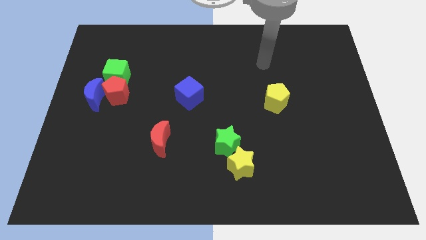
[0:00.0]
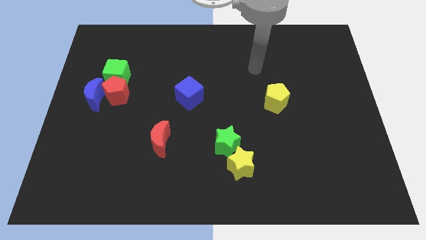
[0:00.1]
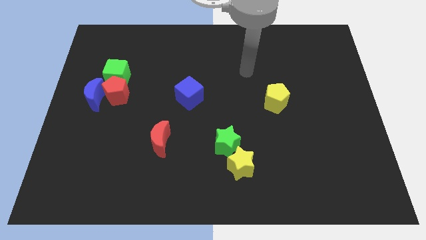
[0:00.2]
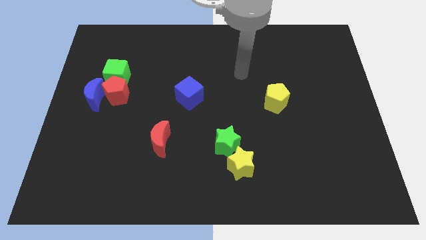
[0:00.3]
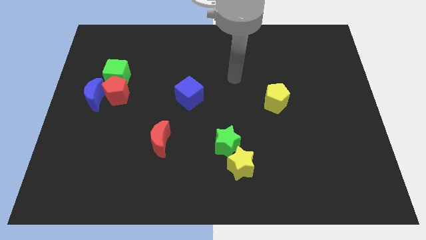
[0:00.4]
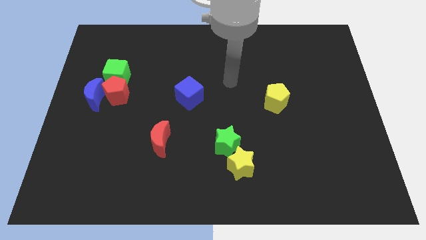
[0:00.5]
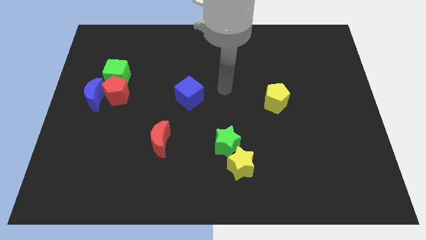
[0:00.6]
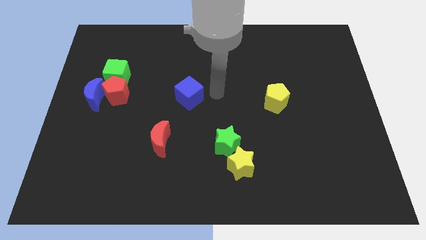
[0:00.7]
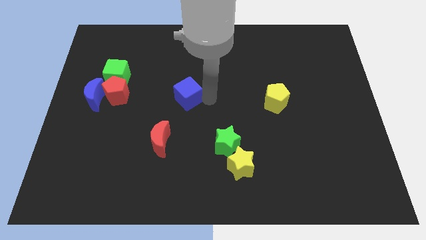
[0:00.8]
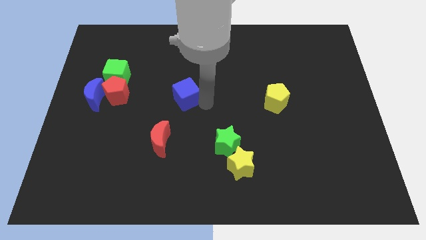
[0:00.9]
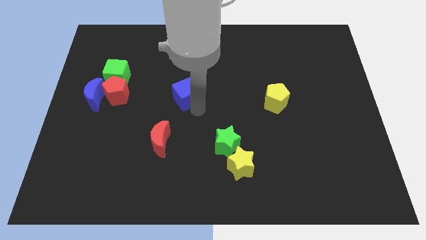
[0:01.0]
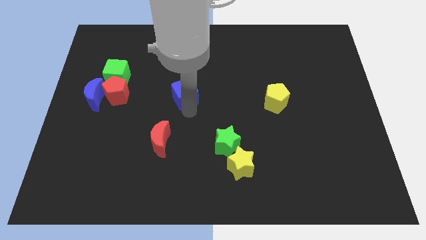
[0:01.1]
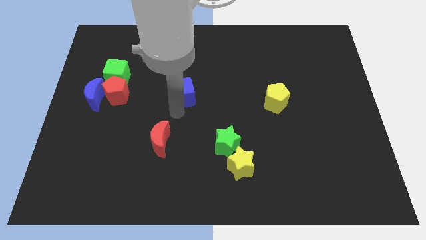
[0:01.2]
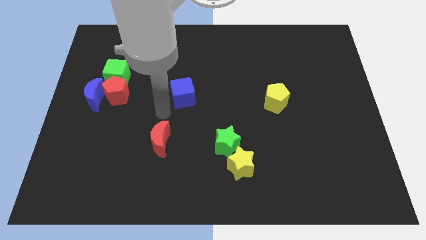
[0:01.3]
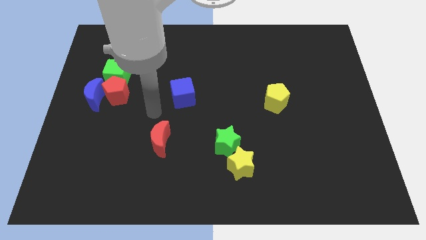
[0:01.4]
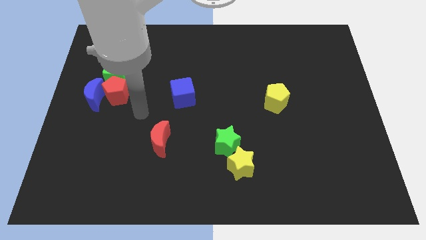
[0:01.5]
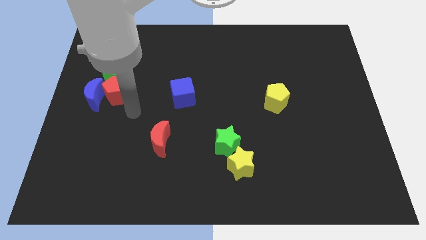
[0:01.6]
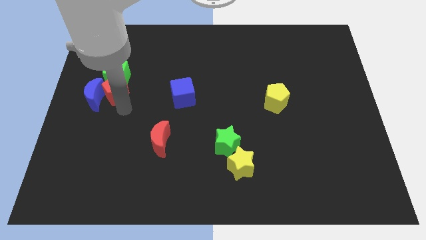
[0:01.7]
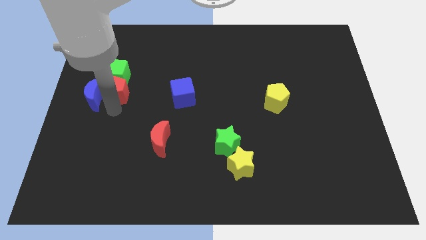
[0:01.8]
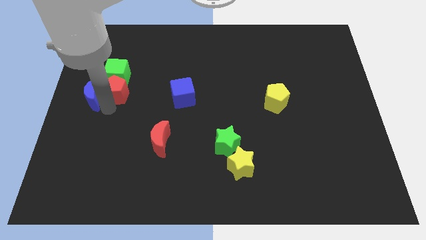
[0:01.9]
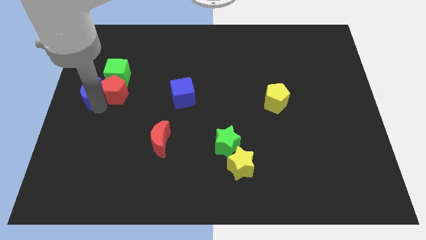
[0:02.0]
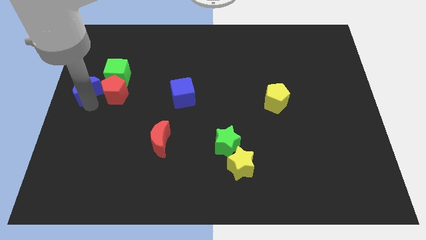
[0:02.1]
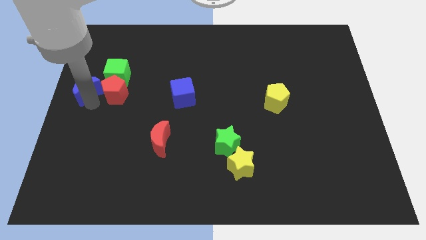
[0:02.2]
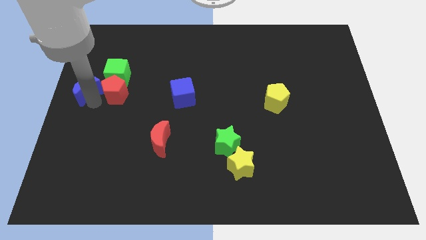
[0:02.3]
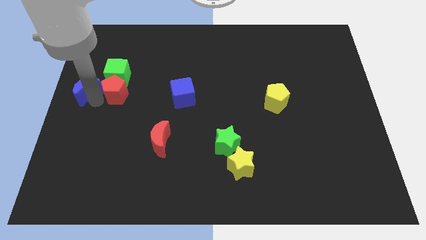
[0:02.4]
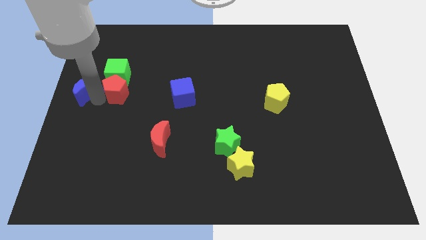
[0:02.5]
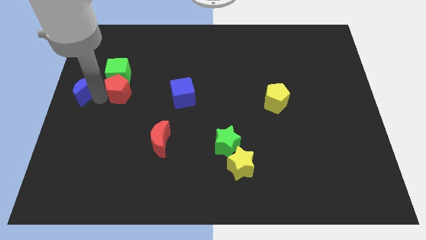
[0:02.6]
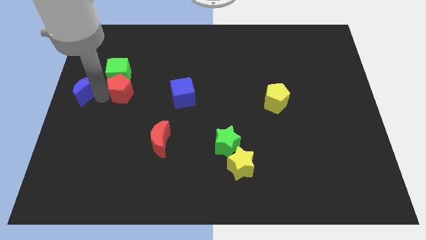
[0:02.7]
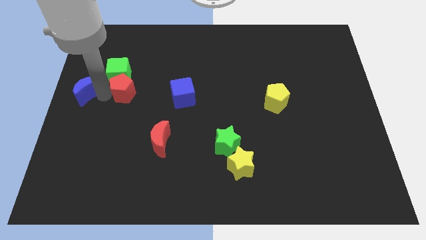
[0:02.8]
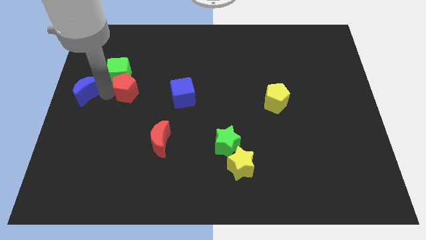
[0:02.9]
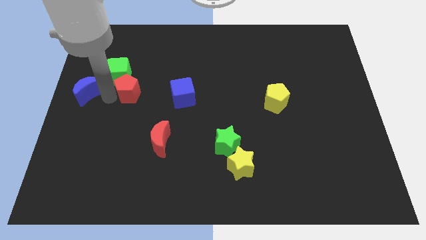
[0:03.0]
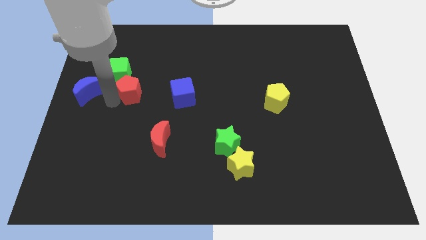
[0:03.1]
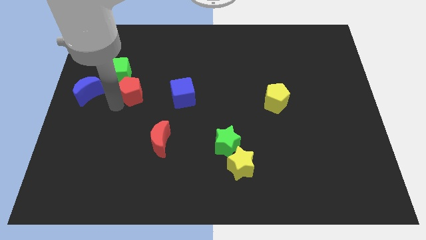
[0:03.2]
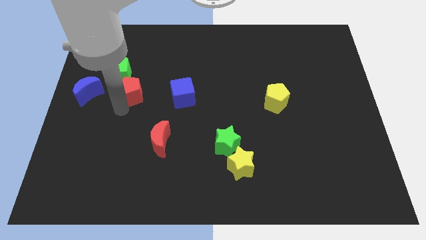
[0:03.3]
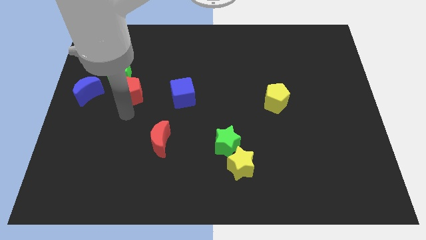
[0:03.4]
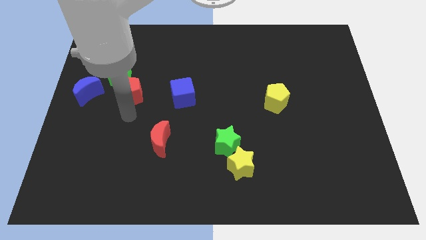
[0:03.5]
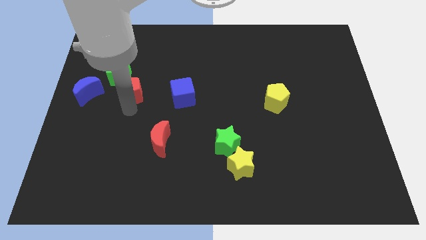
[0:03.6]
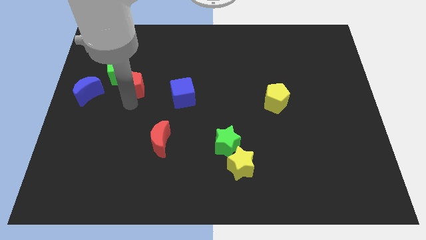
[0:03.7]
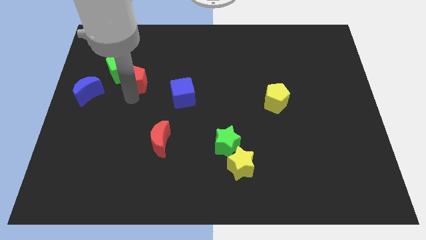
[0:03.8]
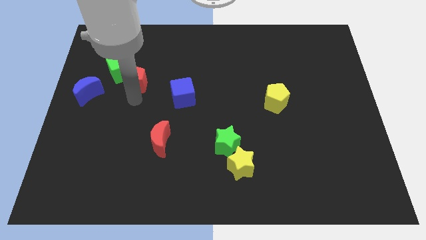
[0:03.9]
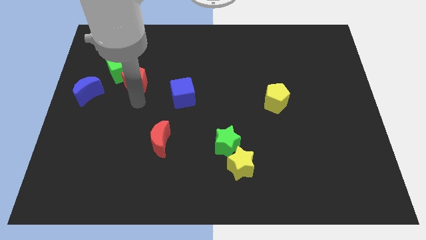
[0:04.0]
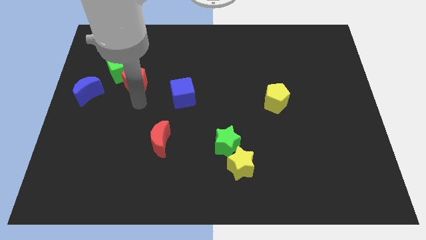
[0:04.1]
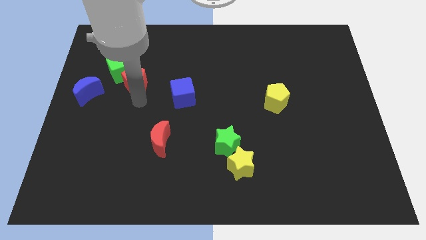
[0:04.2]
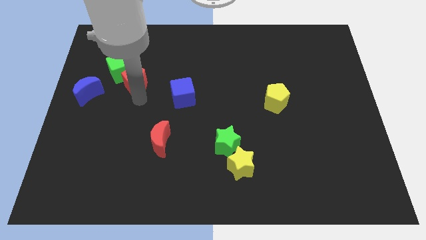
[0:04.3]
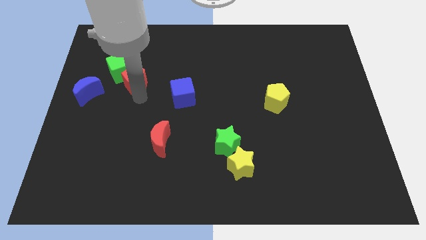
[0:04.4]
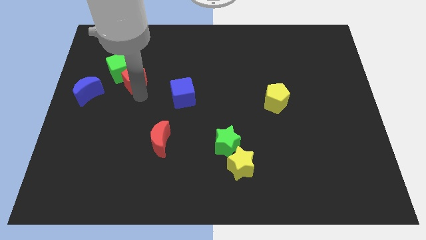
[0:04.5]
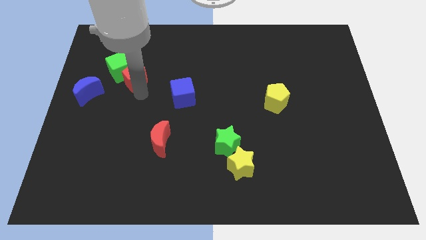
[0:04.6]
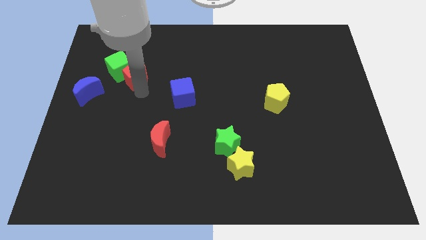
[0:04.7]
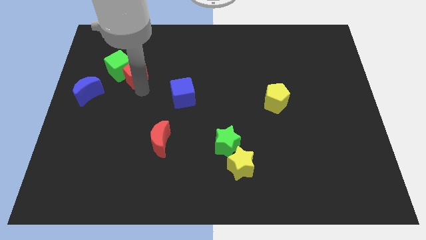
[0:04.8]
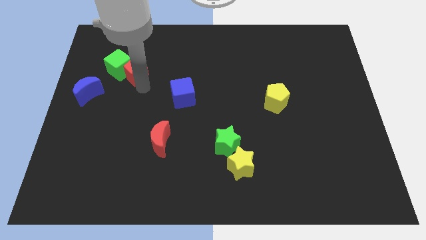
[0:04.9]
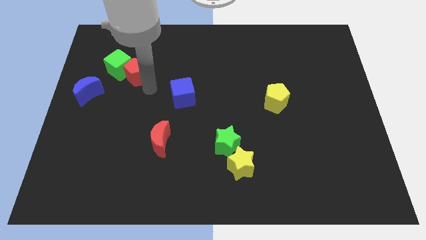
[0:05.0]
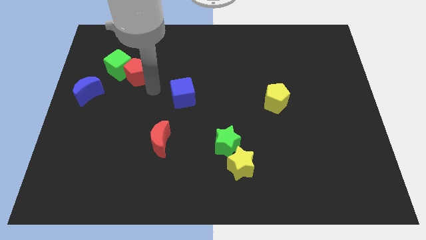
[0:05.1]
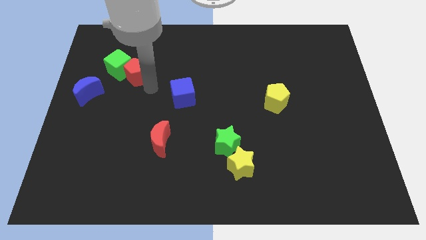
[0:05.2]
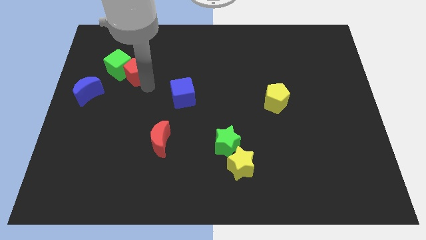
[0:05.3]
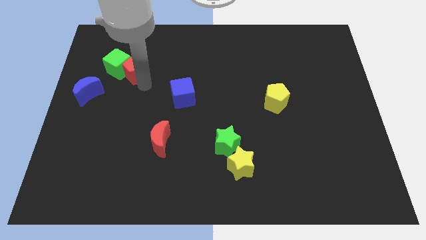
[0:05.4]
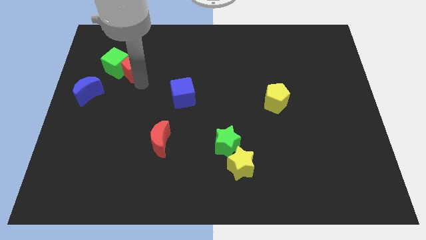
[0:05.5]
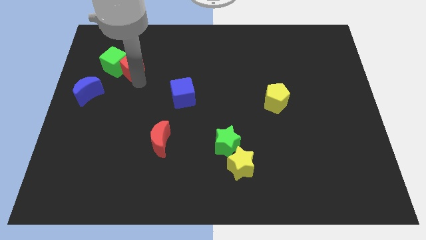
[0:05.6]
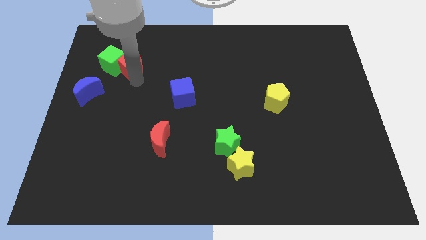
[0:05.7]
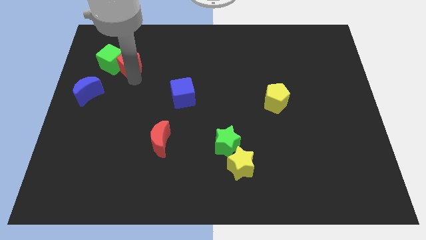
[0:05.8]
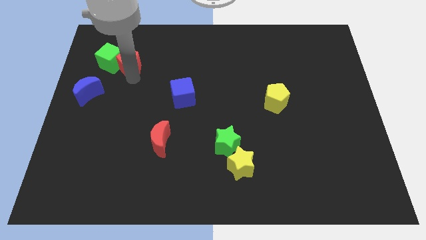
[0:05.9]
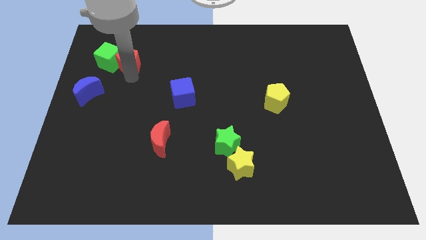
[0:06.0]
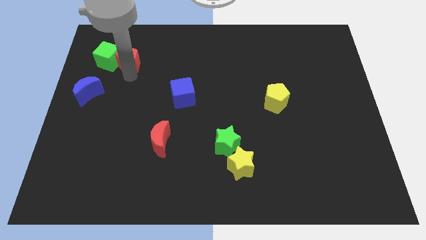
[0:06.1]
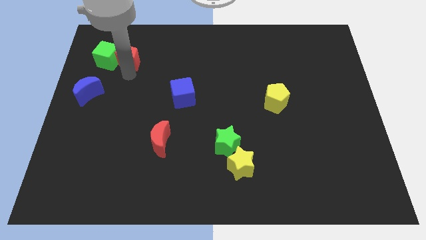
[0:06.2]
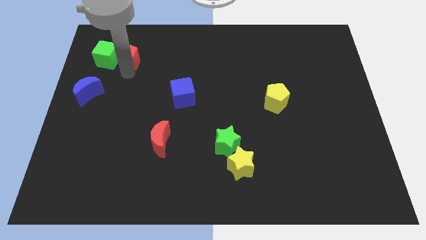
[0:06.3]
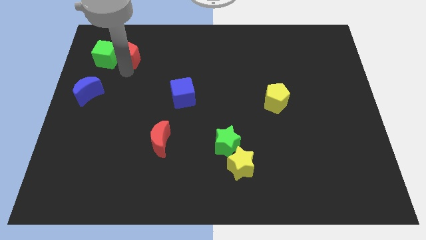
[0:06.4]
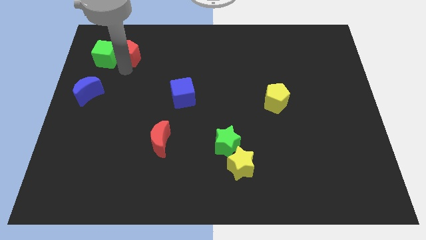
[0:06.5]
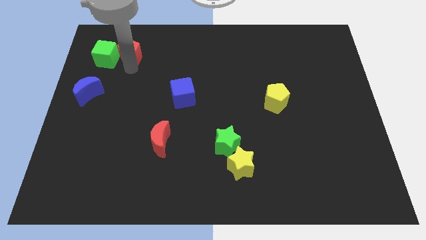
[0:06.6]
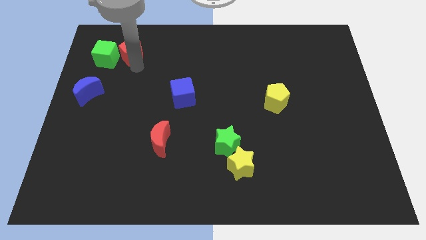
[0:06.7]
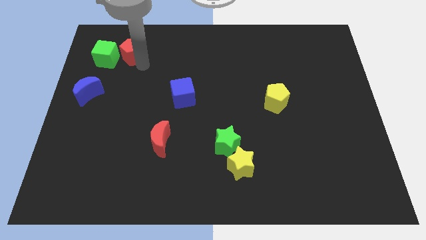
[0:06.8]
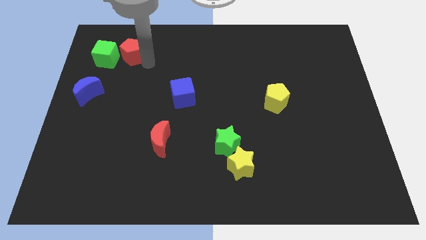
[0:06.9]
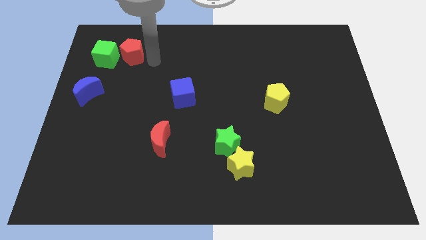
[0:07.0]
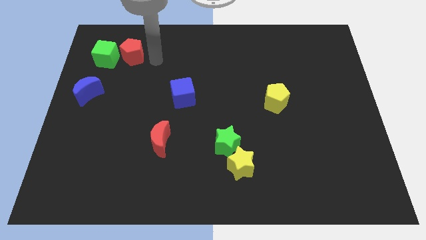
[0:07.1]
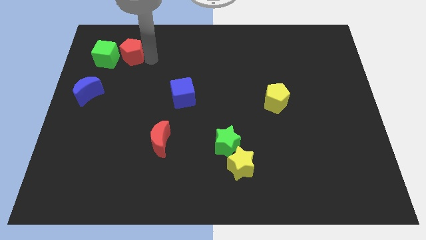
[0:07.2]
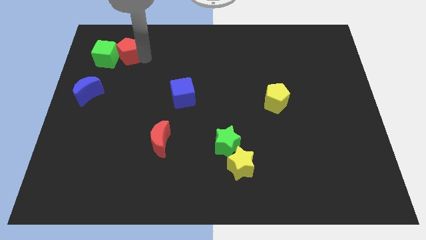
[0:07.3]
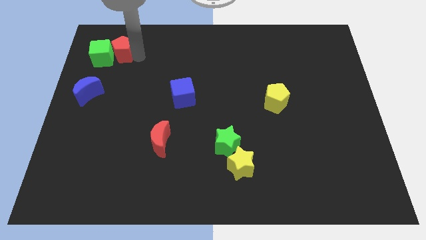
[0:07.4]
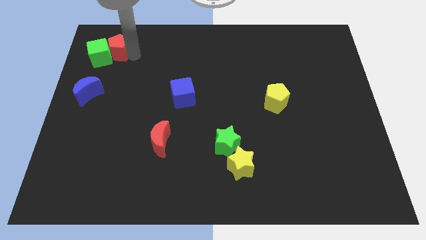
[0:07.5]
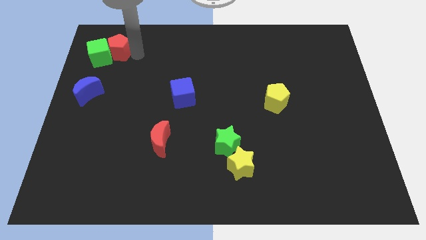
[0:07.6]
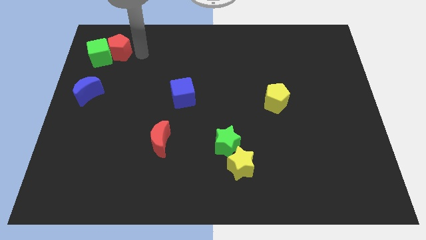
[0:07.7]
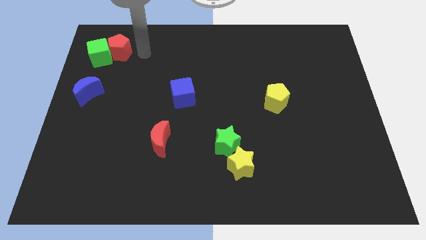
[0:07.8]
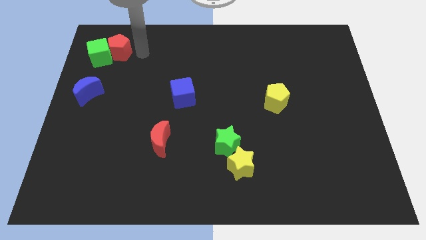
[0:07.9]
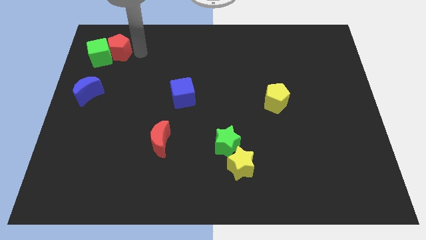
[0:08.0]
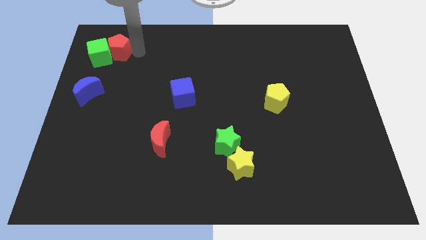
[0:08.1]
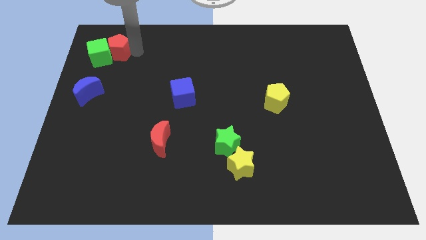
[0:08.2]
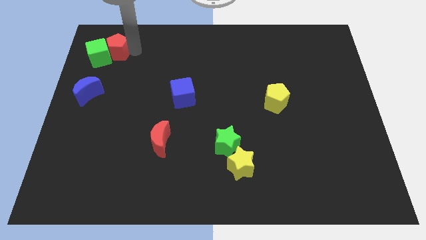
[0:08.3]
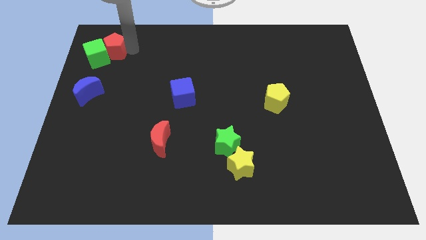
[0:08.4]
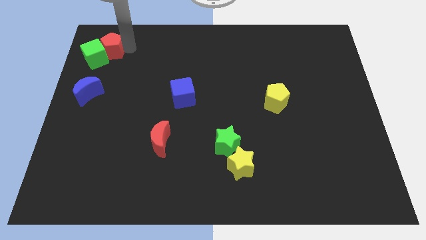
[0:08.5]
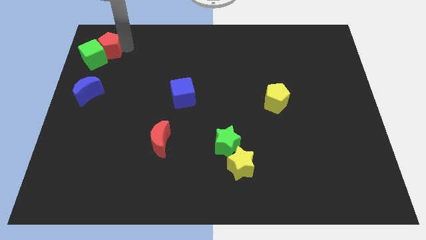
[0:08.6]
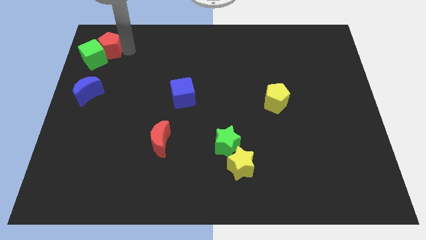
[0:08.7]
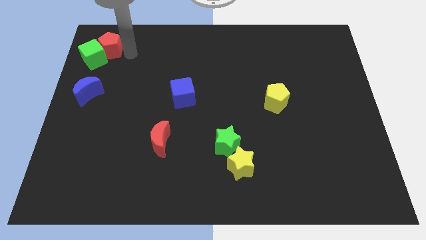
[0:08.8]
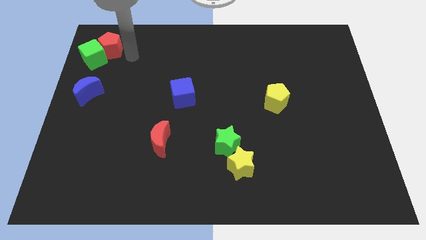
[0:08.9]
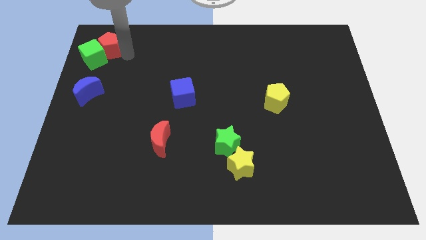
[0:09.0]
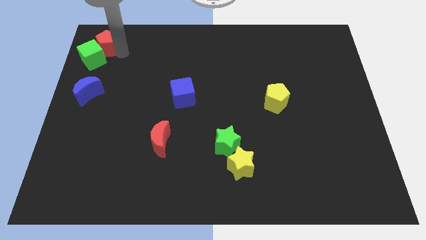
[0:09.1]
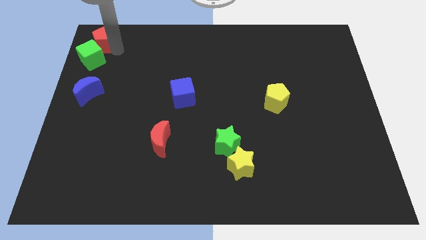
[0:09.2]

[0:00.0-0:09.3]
move the red pentagon to the top left
